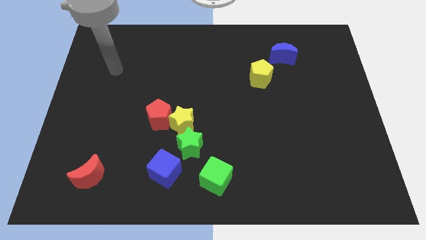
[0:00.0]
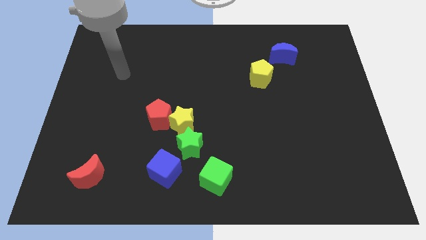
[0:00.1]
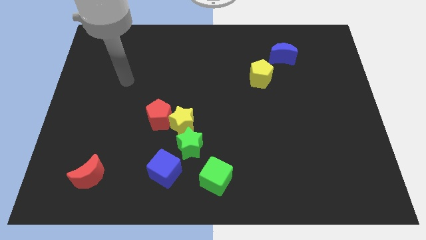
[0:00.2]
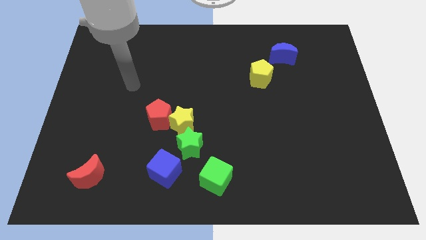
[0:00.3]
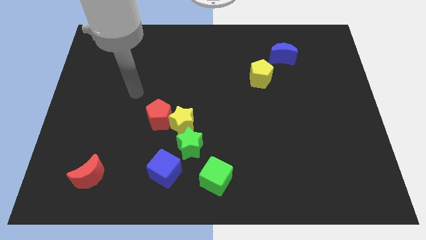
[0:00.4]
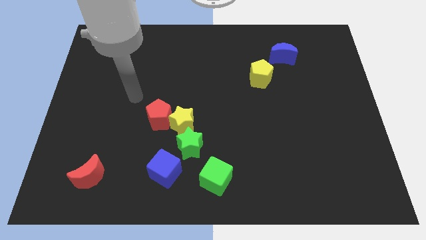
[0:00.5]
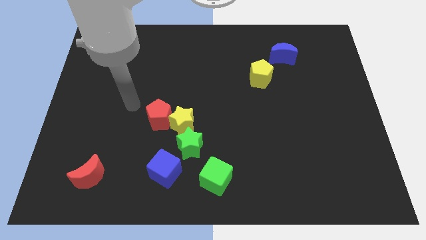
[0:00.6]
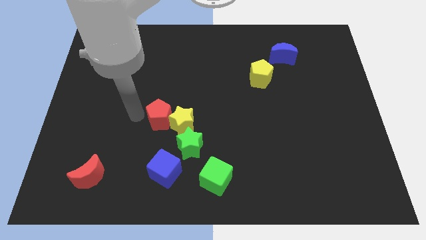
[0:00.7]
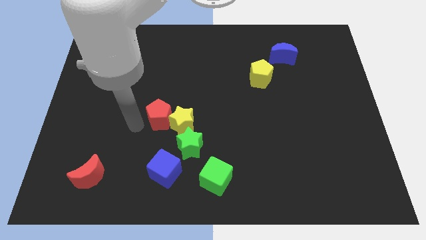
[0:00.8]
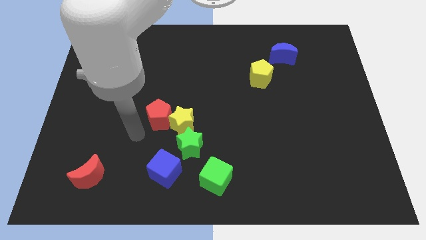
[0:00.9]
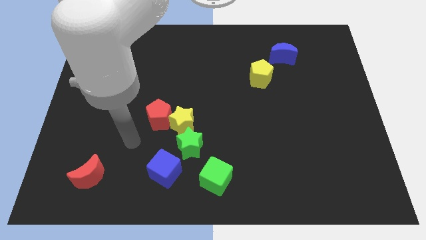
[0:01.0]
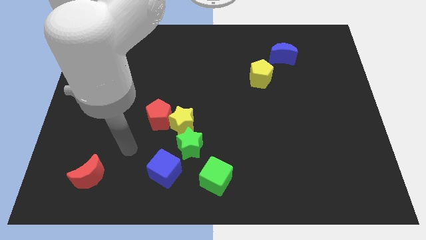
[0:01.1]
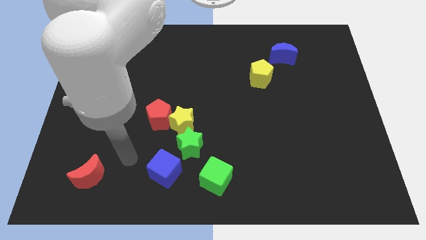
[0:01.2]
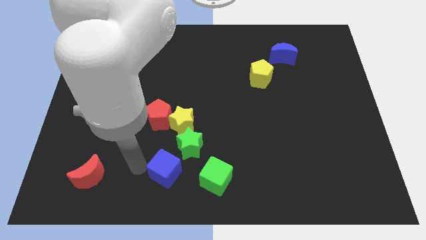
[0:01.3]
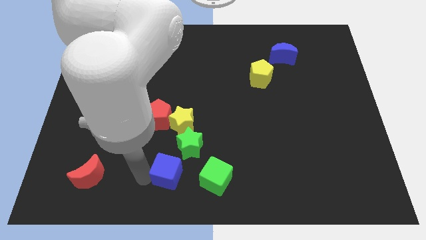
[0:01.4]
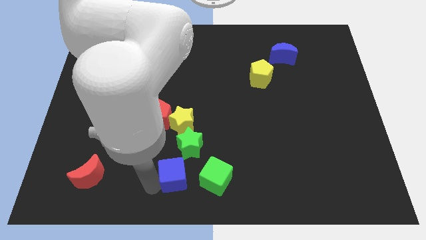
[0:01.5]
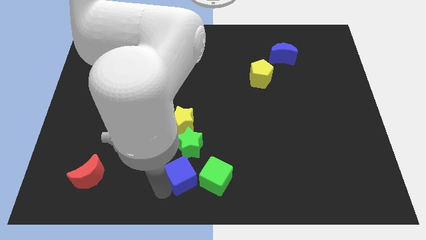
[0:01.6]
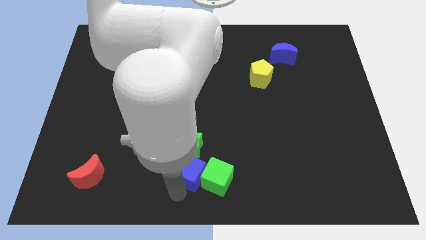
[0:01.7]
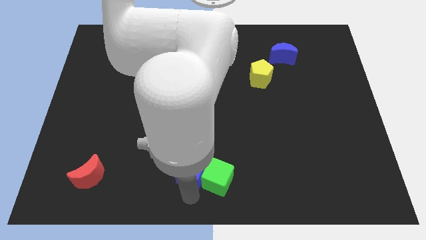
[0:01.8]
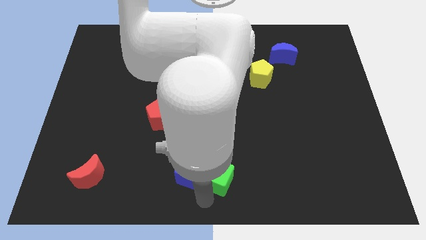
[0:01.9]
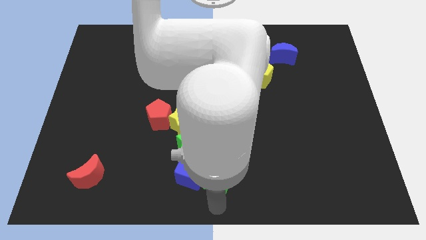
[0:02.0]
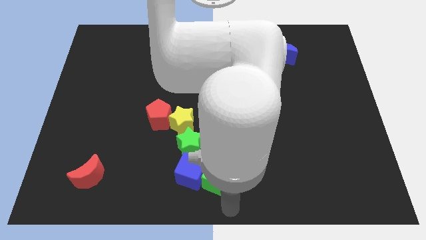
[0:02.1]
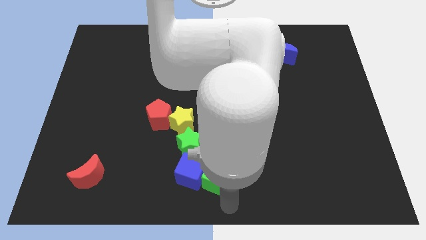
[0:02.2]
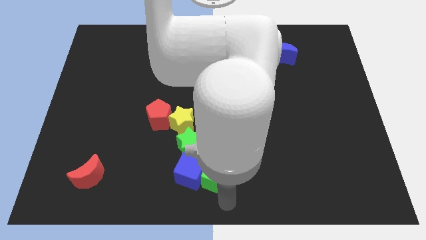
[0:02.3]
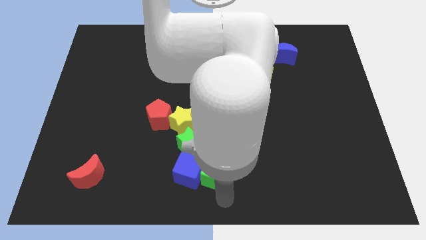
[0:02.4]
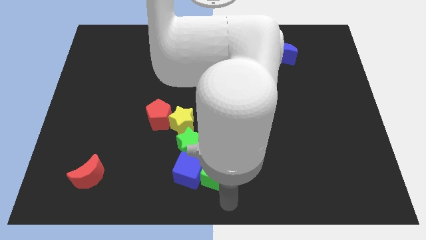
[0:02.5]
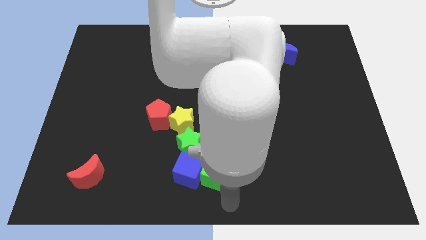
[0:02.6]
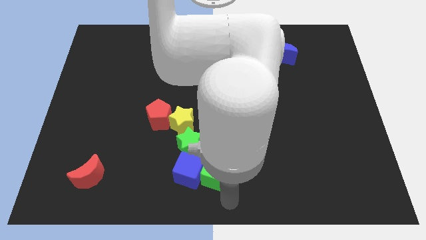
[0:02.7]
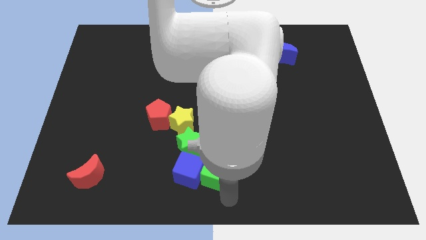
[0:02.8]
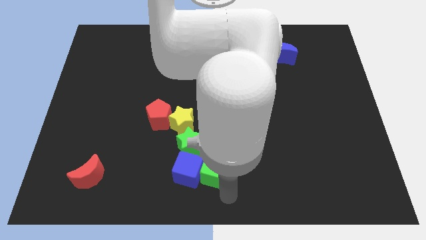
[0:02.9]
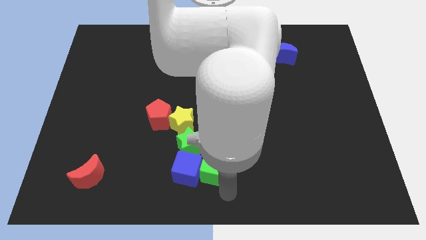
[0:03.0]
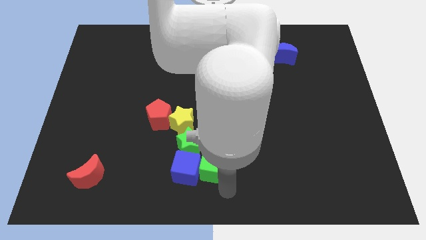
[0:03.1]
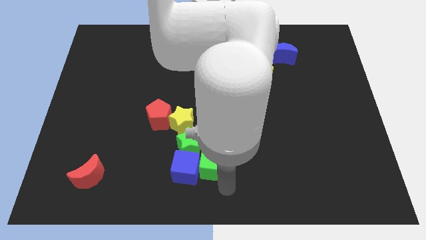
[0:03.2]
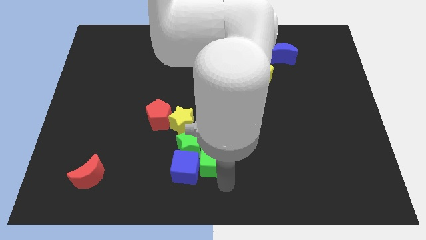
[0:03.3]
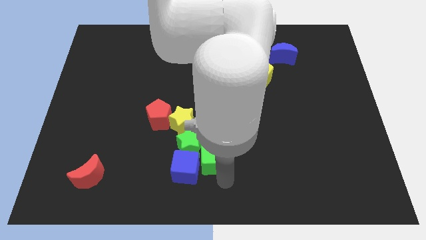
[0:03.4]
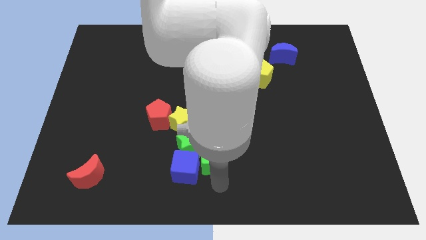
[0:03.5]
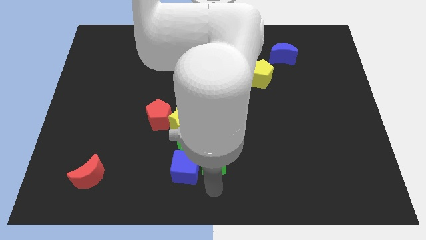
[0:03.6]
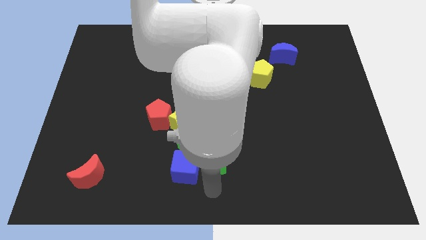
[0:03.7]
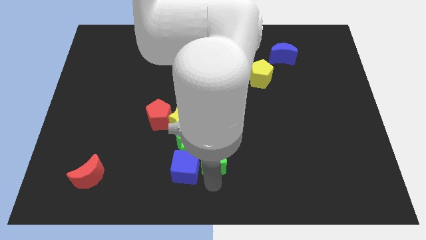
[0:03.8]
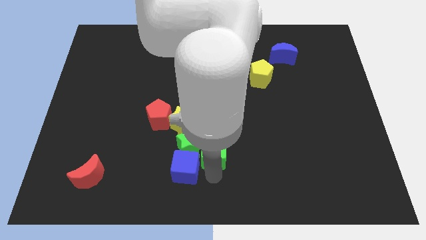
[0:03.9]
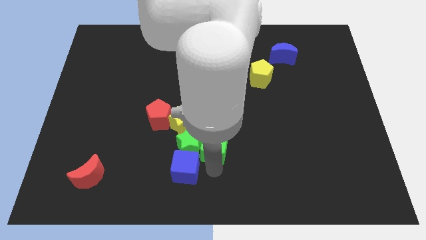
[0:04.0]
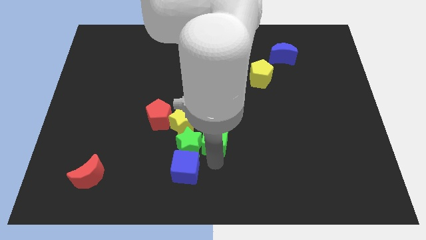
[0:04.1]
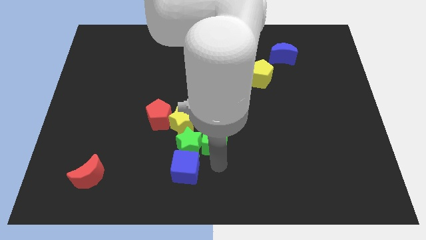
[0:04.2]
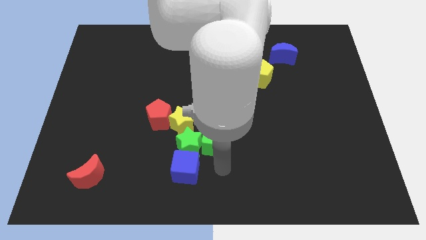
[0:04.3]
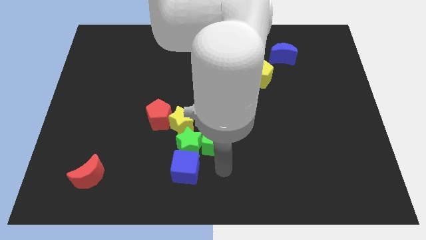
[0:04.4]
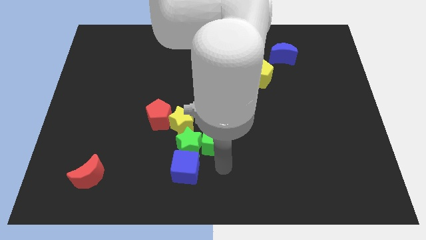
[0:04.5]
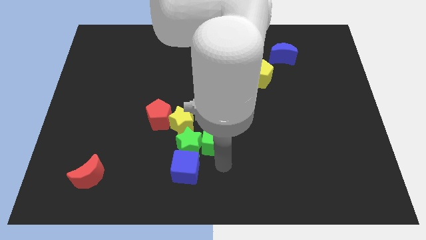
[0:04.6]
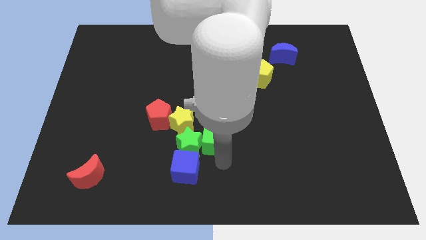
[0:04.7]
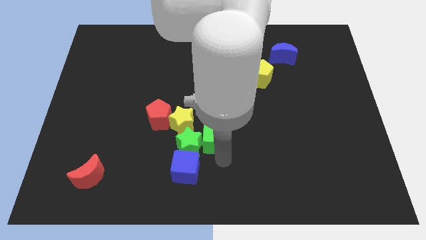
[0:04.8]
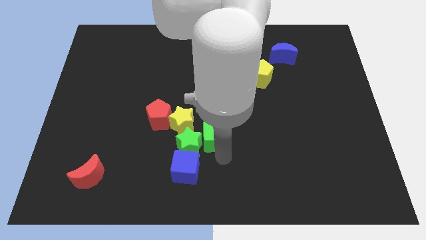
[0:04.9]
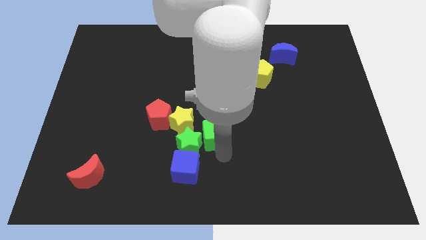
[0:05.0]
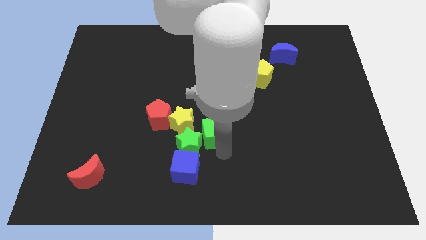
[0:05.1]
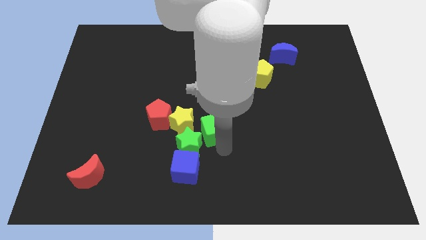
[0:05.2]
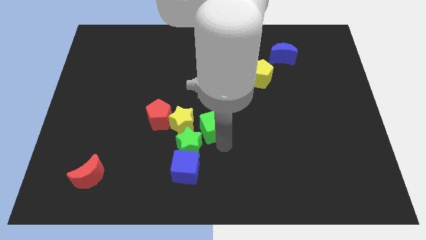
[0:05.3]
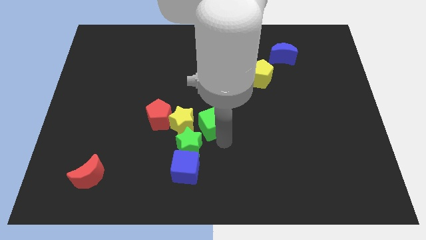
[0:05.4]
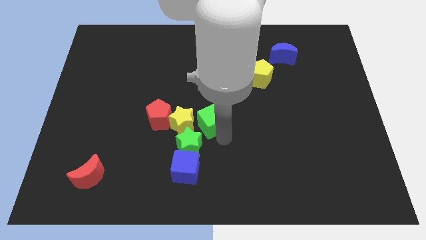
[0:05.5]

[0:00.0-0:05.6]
move the green cube to the top of the green star

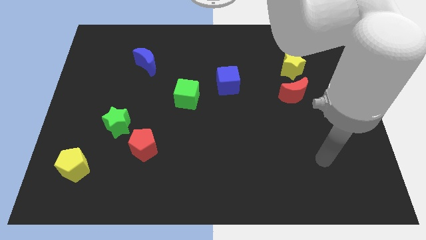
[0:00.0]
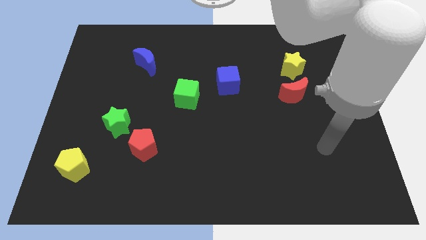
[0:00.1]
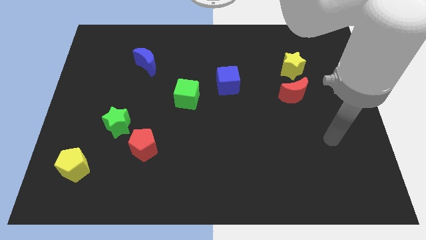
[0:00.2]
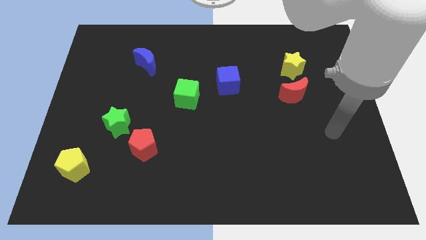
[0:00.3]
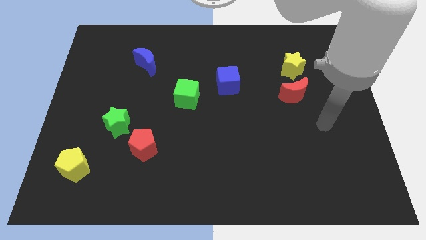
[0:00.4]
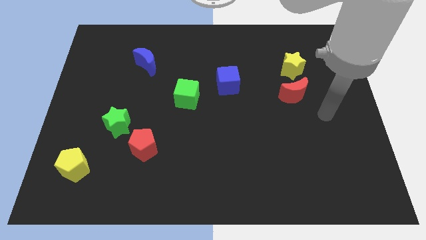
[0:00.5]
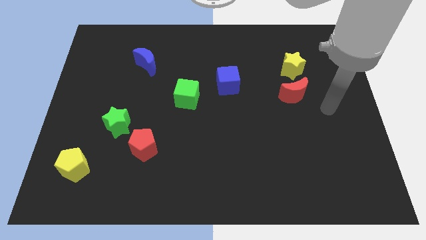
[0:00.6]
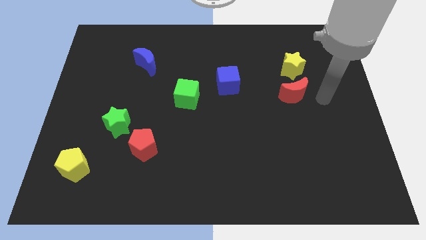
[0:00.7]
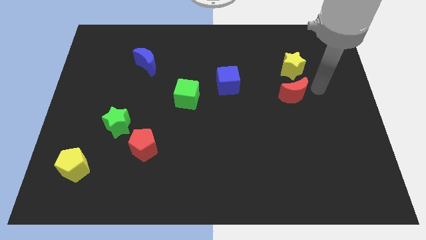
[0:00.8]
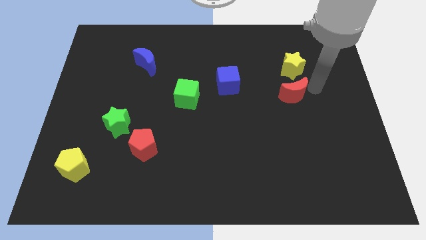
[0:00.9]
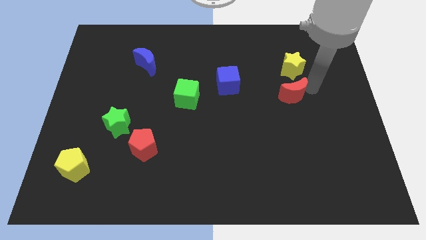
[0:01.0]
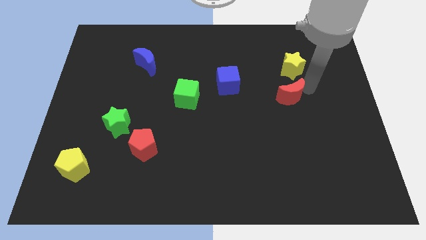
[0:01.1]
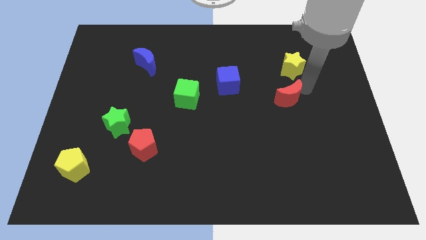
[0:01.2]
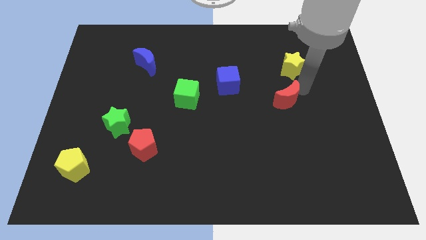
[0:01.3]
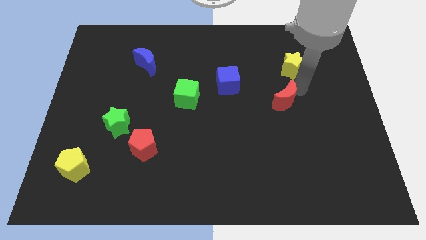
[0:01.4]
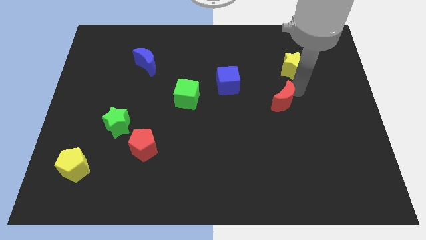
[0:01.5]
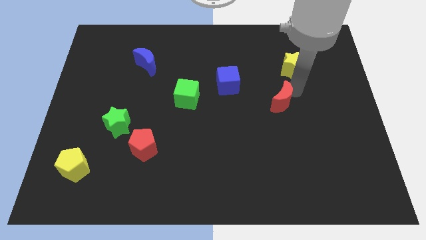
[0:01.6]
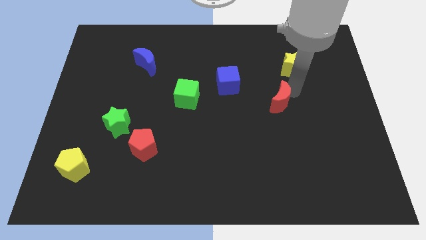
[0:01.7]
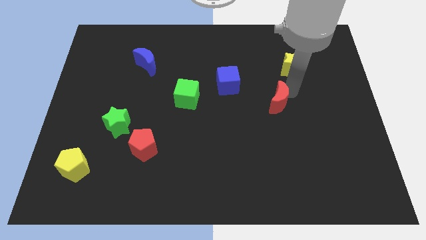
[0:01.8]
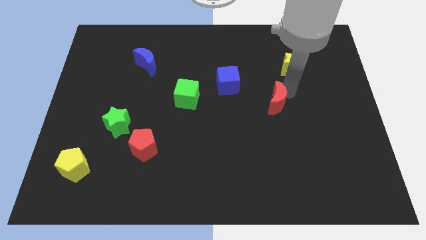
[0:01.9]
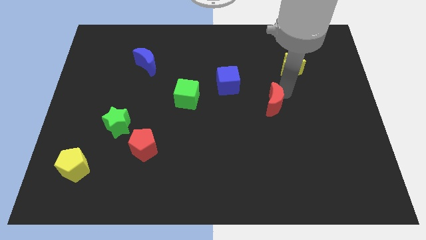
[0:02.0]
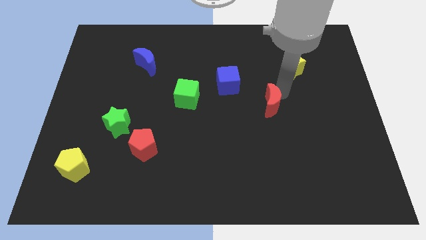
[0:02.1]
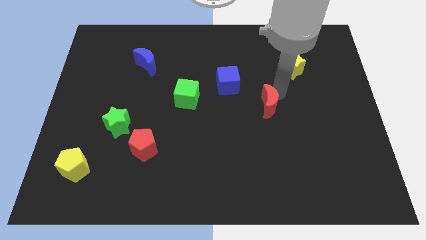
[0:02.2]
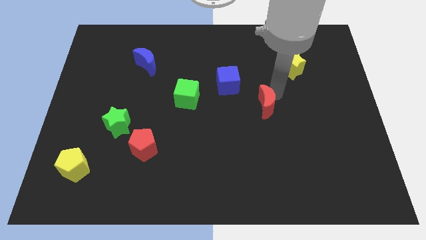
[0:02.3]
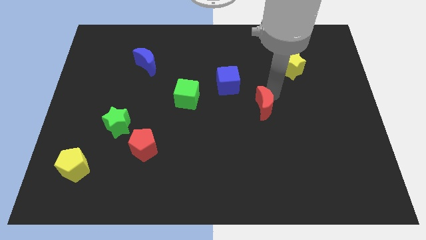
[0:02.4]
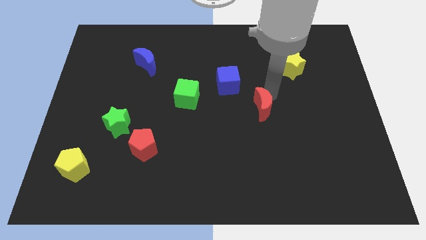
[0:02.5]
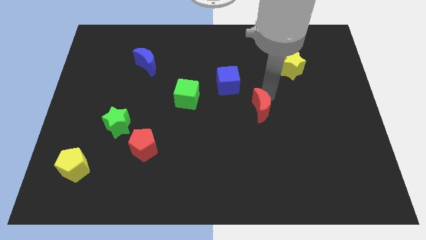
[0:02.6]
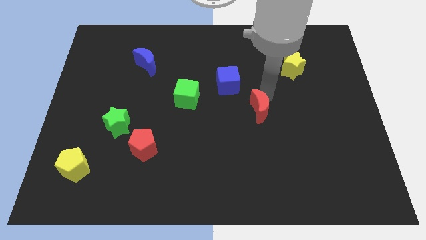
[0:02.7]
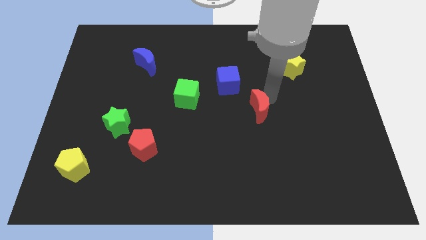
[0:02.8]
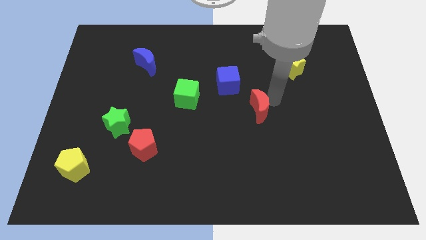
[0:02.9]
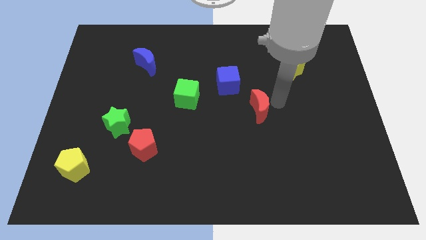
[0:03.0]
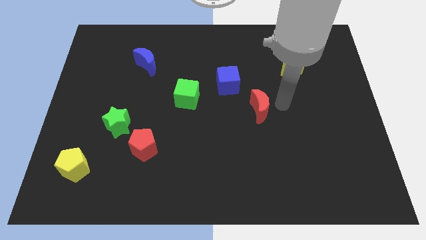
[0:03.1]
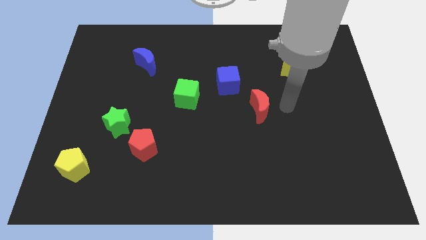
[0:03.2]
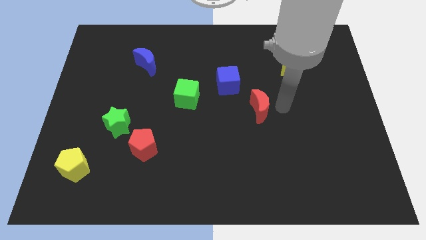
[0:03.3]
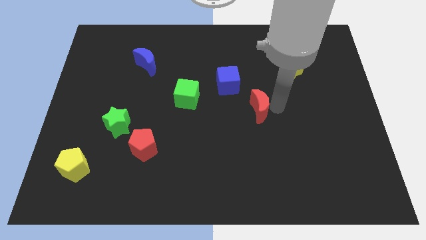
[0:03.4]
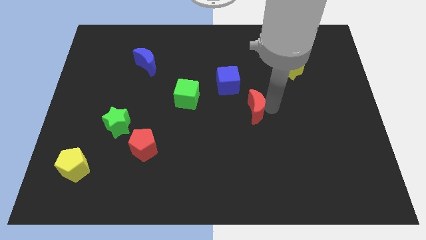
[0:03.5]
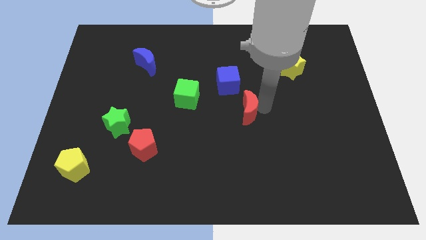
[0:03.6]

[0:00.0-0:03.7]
put the red moon below the blue cube
